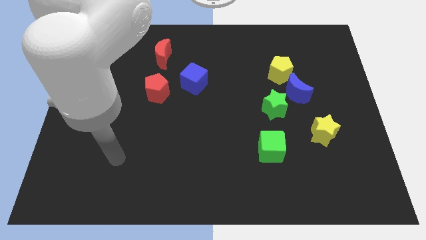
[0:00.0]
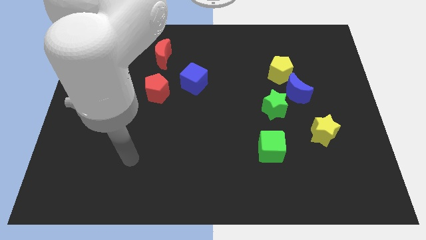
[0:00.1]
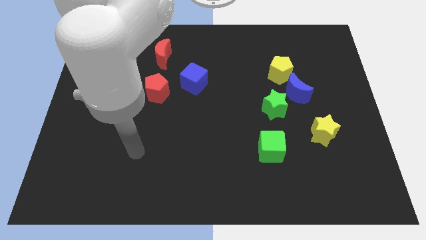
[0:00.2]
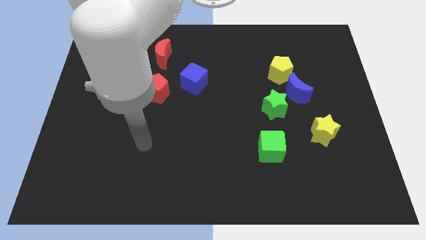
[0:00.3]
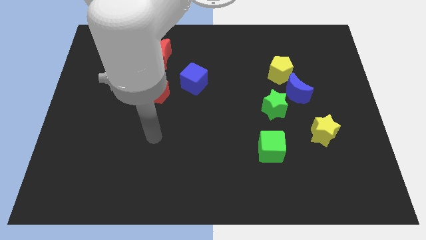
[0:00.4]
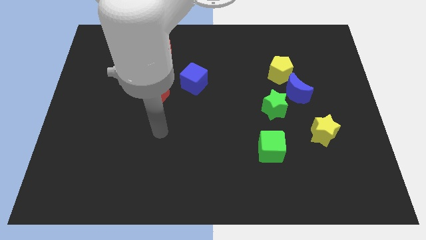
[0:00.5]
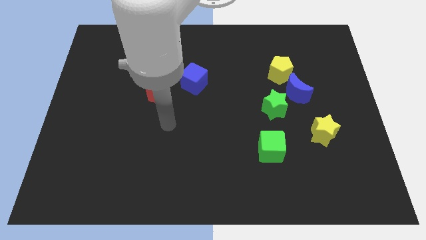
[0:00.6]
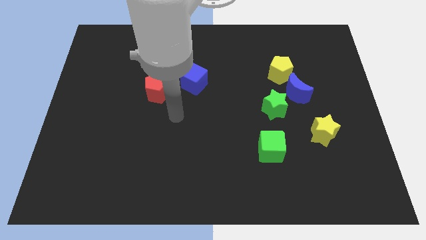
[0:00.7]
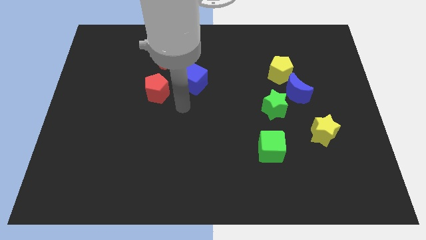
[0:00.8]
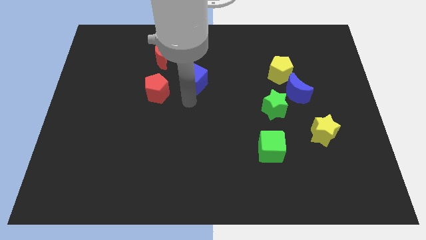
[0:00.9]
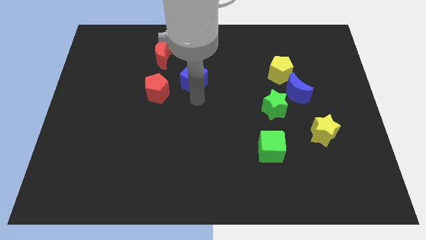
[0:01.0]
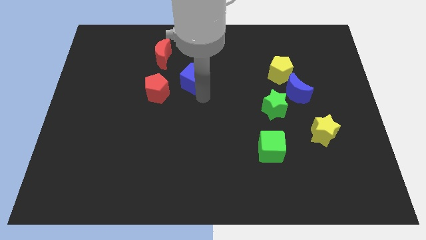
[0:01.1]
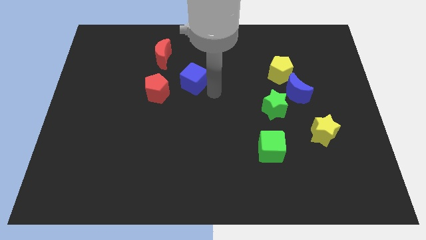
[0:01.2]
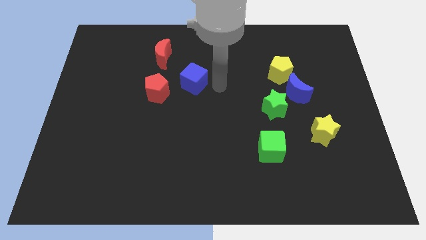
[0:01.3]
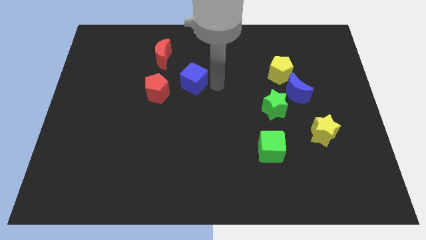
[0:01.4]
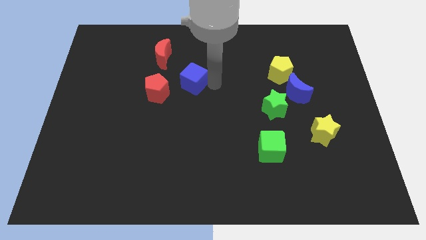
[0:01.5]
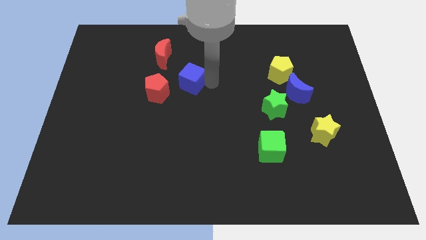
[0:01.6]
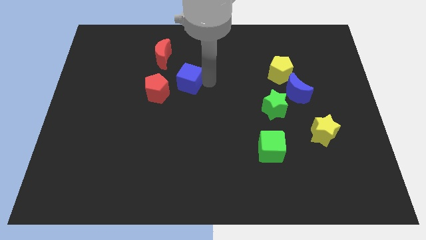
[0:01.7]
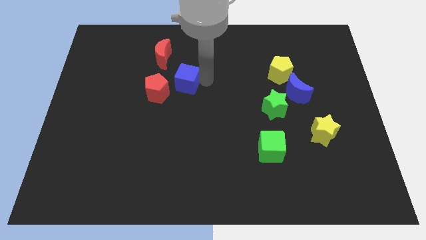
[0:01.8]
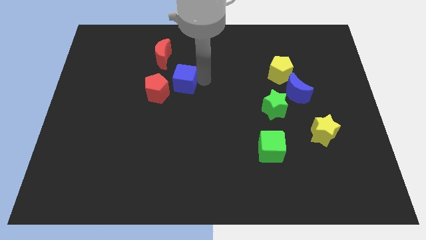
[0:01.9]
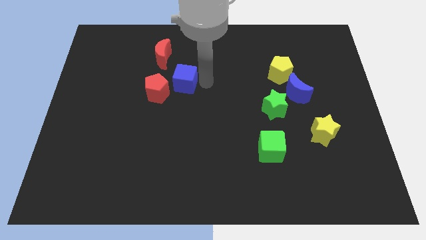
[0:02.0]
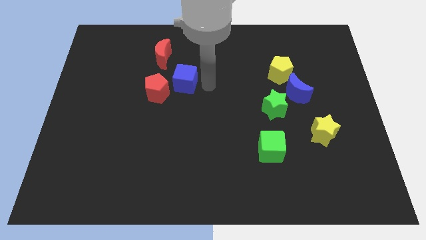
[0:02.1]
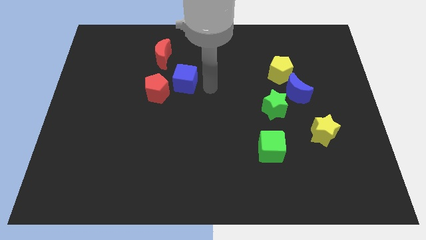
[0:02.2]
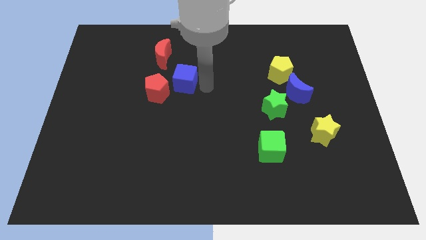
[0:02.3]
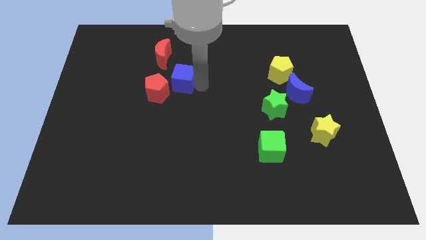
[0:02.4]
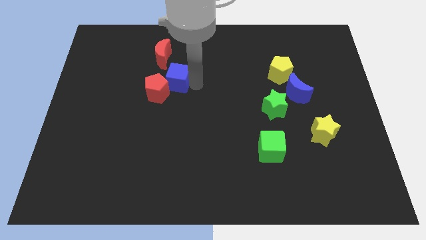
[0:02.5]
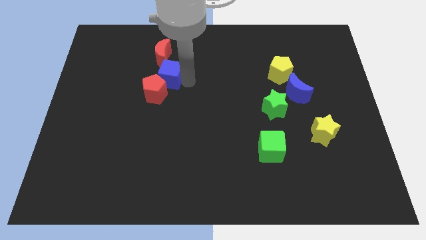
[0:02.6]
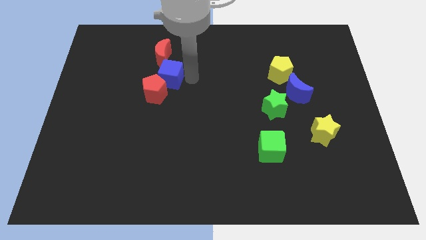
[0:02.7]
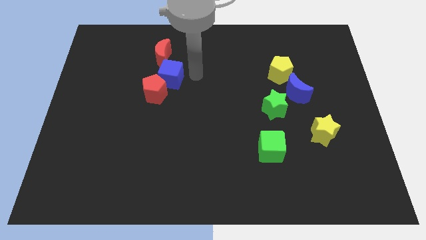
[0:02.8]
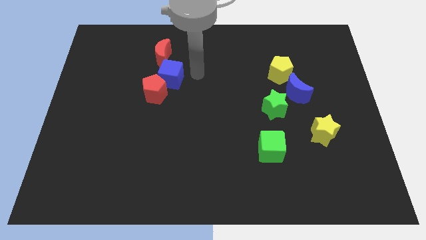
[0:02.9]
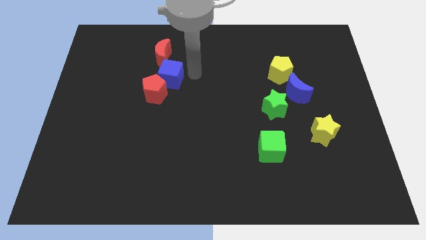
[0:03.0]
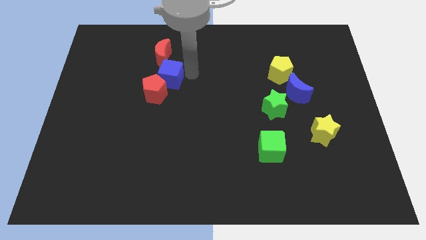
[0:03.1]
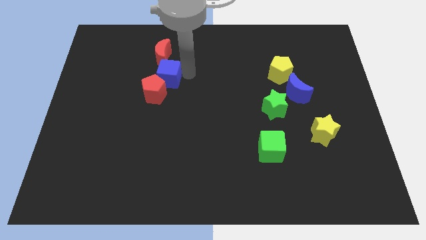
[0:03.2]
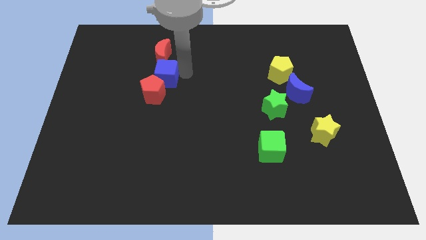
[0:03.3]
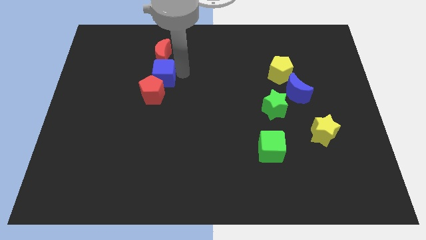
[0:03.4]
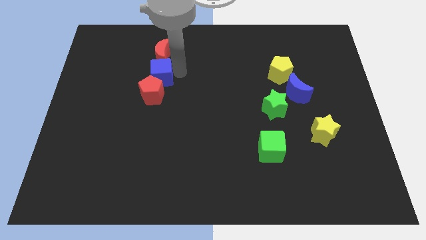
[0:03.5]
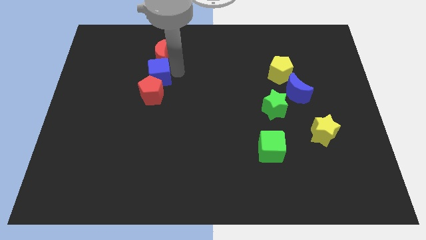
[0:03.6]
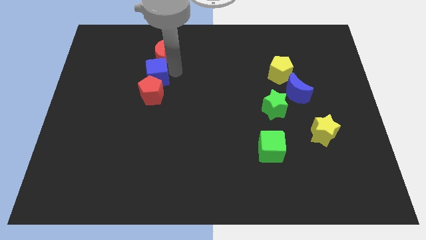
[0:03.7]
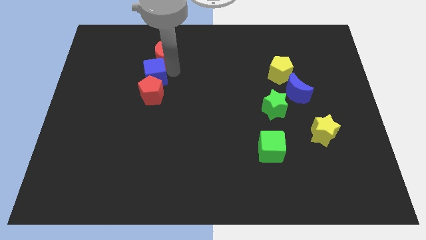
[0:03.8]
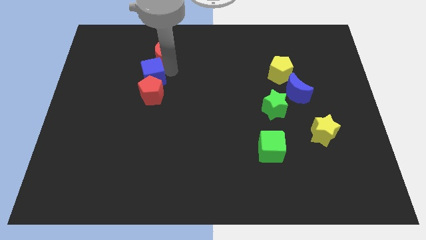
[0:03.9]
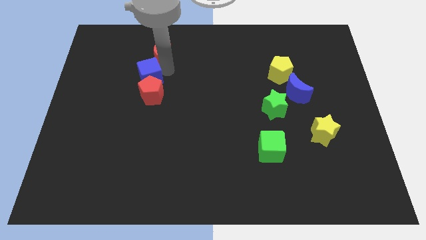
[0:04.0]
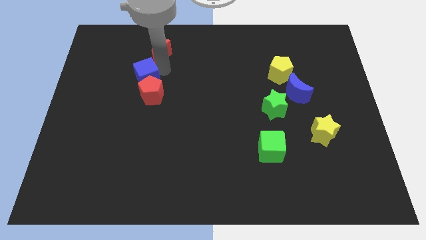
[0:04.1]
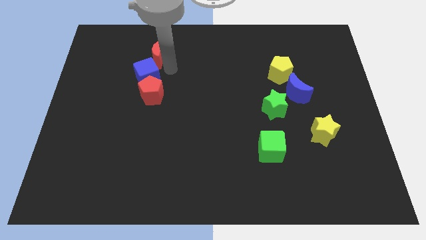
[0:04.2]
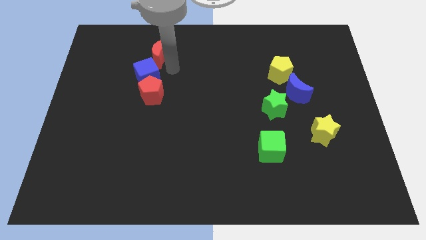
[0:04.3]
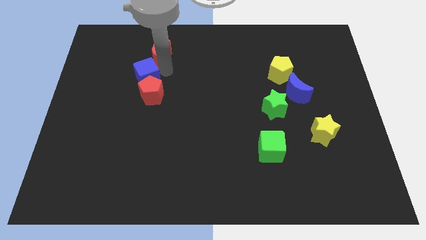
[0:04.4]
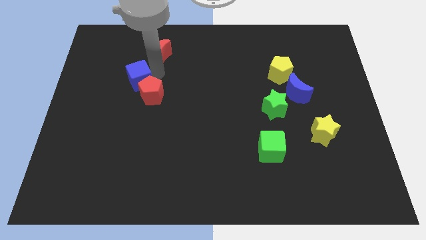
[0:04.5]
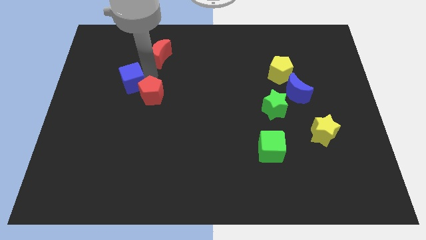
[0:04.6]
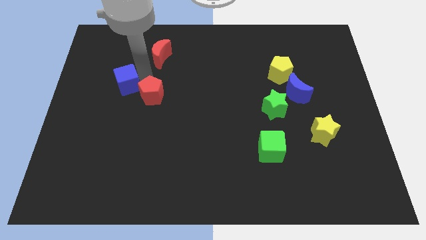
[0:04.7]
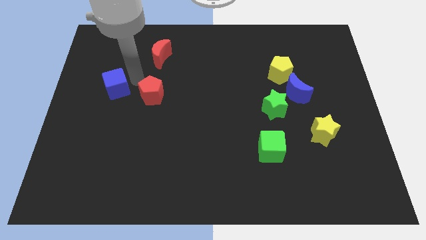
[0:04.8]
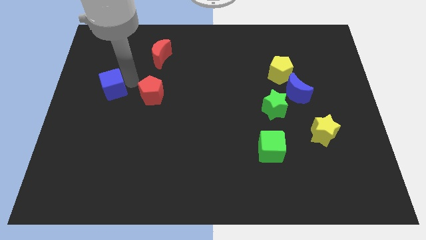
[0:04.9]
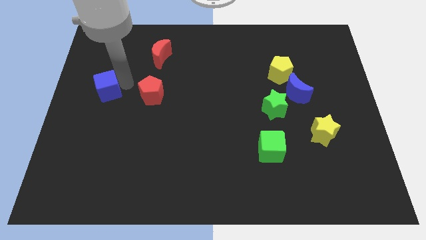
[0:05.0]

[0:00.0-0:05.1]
slide the blue cube to the center left

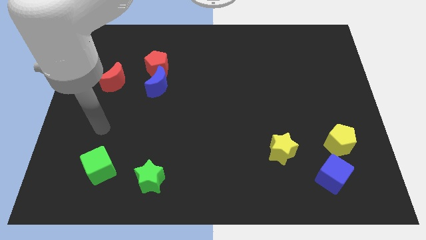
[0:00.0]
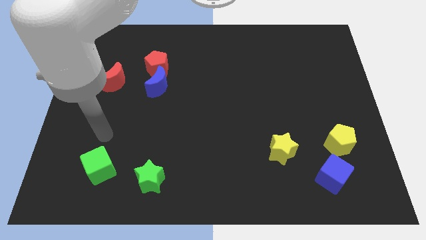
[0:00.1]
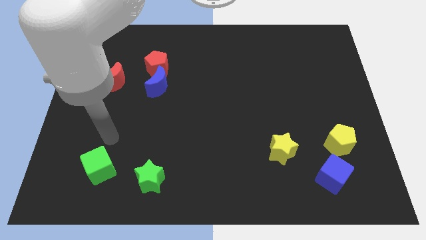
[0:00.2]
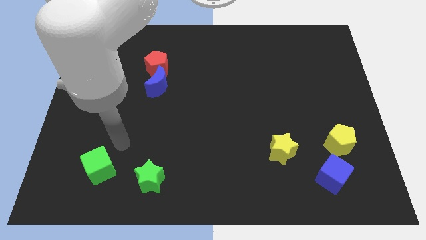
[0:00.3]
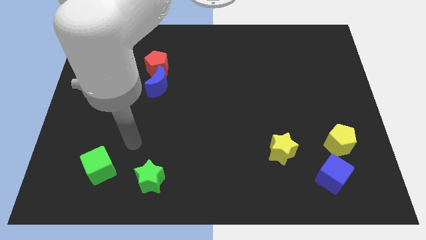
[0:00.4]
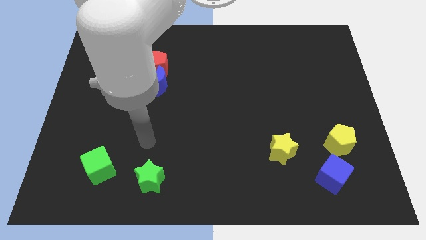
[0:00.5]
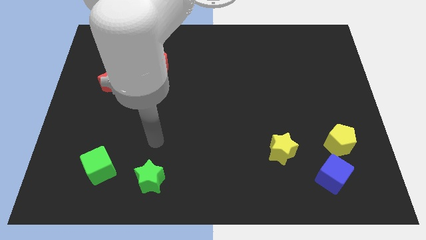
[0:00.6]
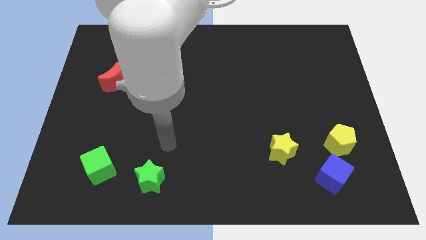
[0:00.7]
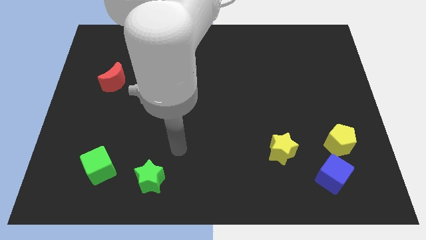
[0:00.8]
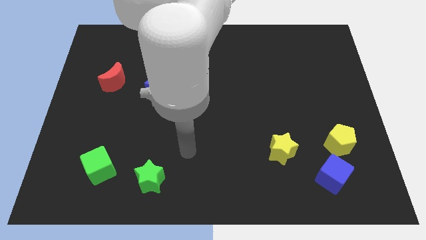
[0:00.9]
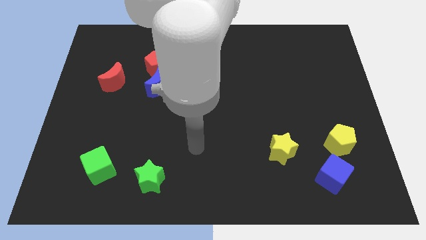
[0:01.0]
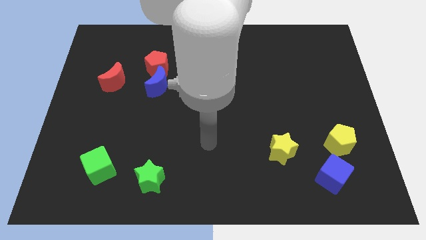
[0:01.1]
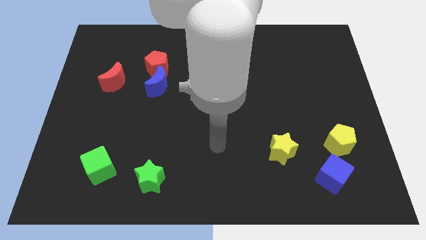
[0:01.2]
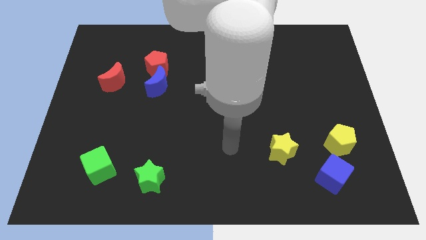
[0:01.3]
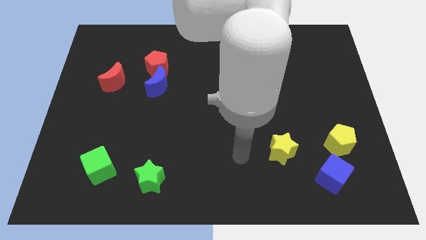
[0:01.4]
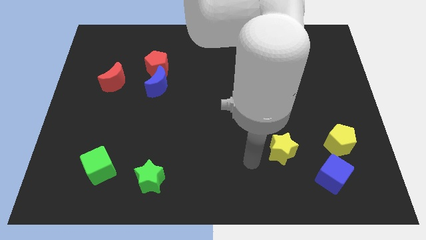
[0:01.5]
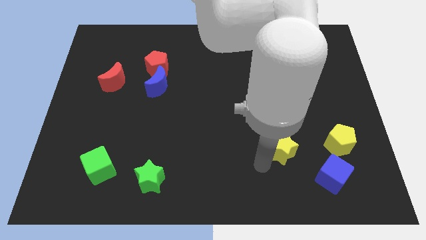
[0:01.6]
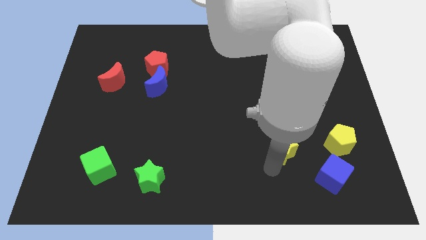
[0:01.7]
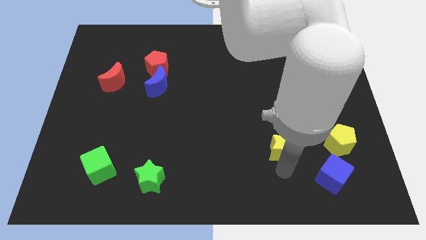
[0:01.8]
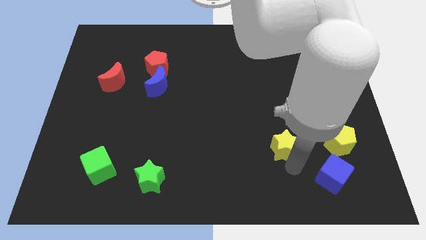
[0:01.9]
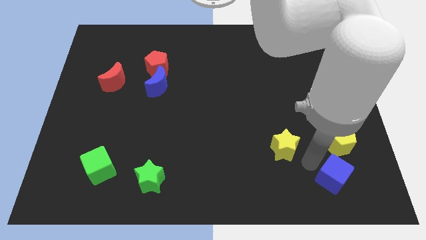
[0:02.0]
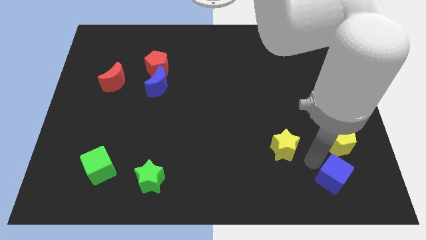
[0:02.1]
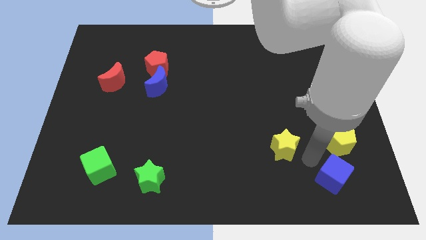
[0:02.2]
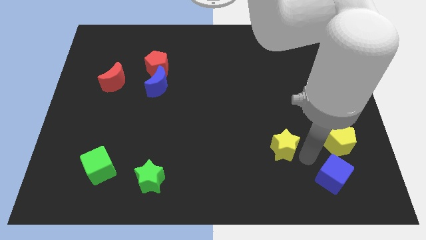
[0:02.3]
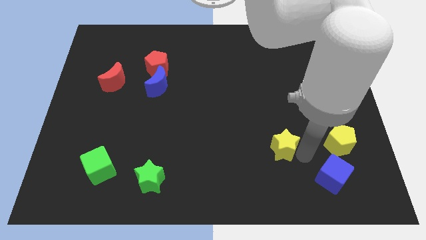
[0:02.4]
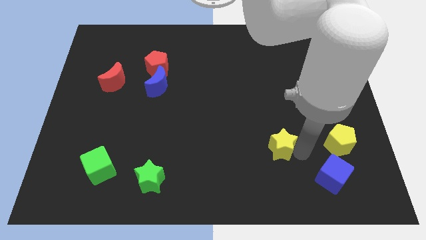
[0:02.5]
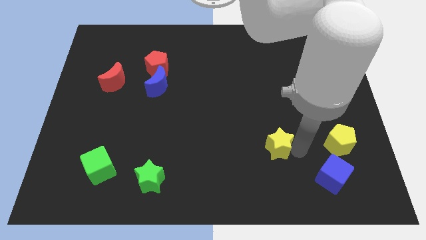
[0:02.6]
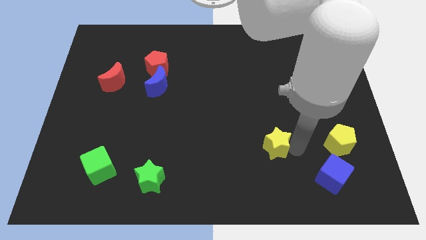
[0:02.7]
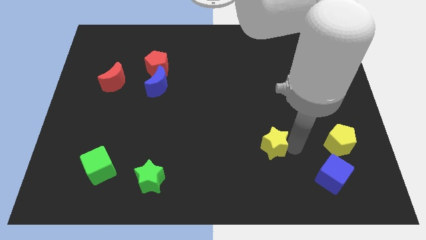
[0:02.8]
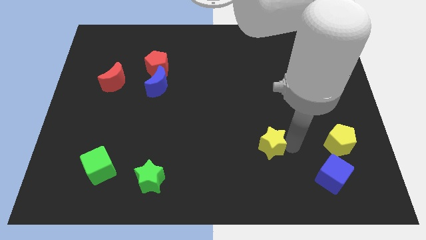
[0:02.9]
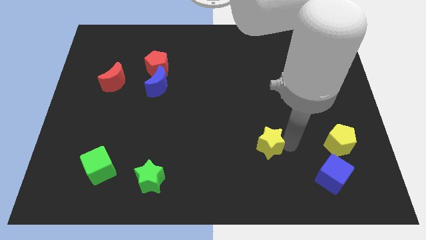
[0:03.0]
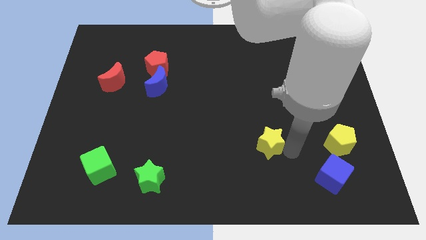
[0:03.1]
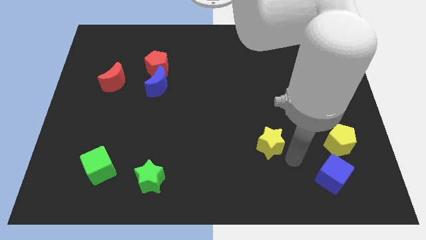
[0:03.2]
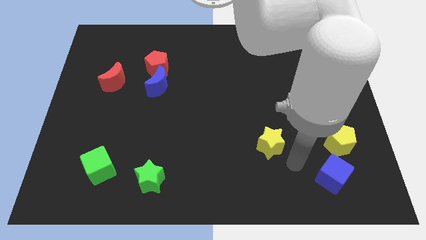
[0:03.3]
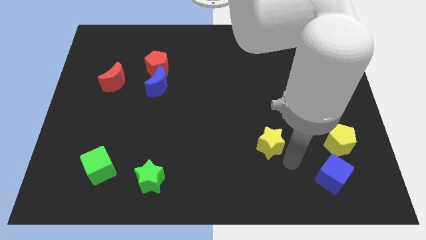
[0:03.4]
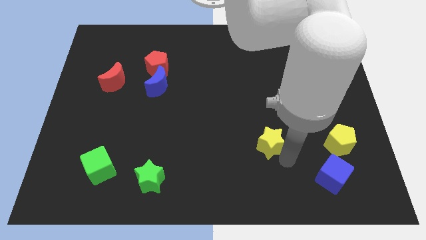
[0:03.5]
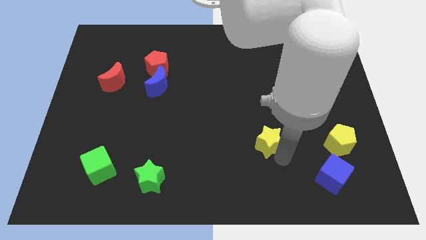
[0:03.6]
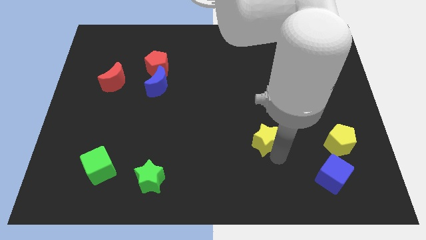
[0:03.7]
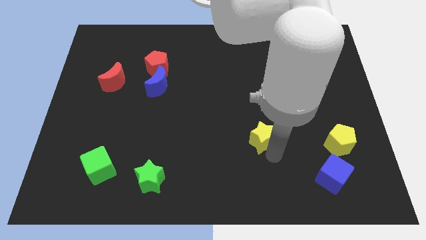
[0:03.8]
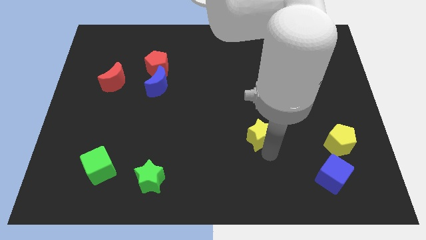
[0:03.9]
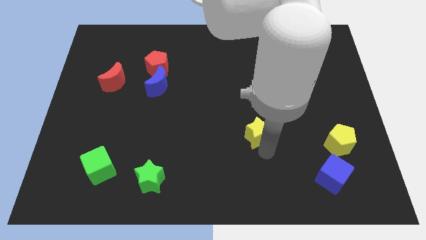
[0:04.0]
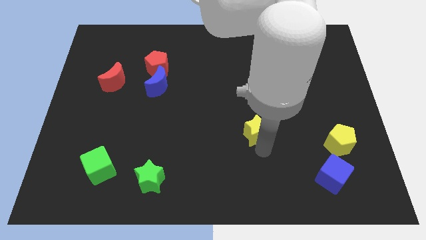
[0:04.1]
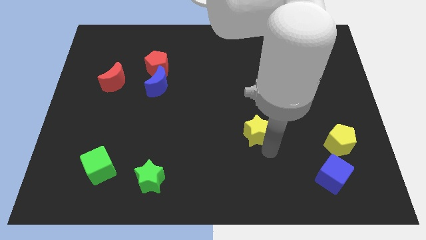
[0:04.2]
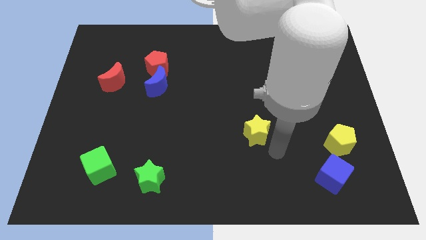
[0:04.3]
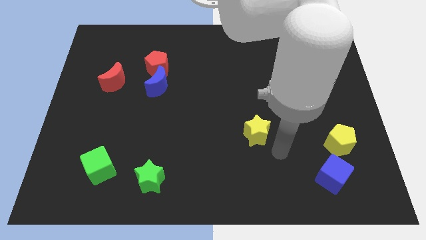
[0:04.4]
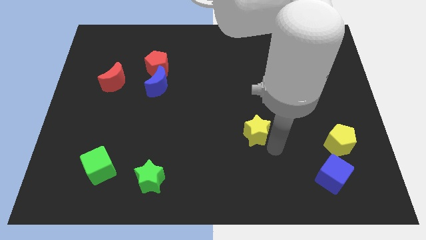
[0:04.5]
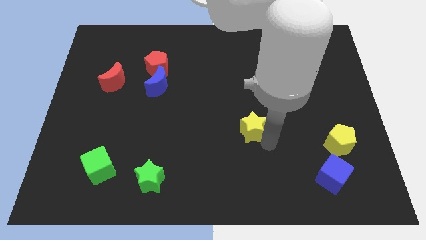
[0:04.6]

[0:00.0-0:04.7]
push the yellow star to the middle
